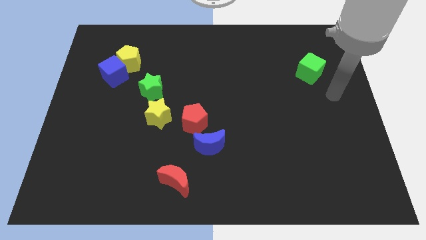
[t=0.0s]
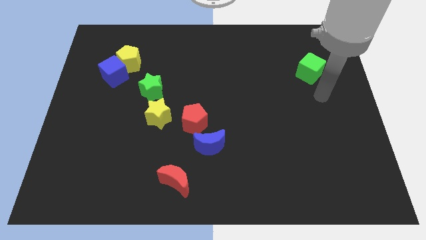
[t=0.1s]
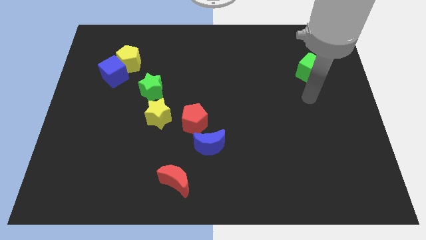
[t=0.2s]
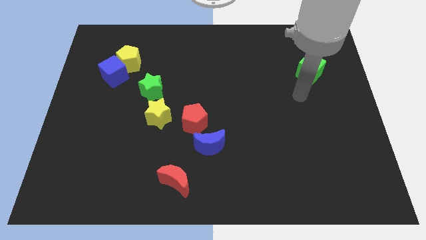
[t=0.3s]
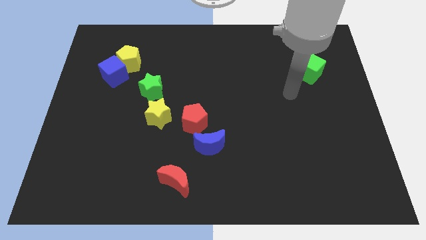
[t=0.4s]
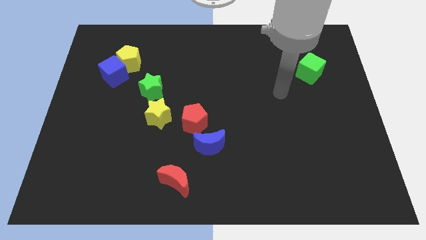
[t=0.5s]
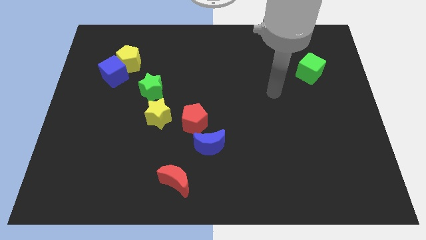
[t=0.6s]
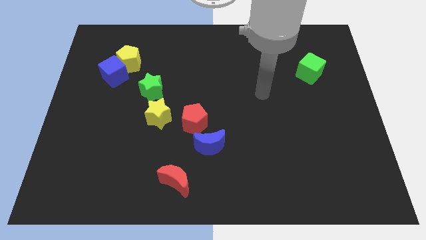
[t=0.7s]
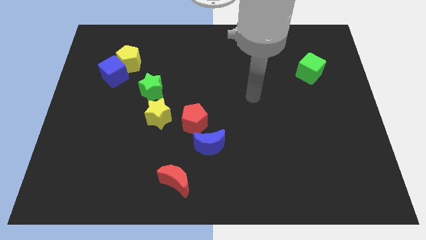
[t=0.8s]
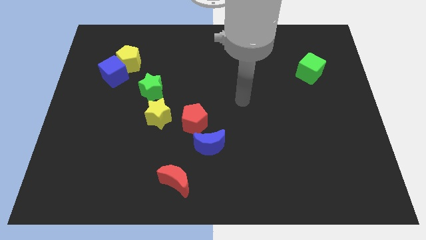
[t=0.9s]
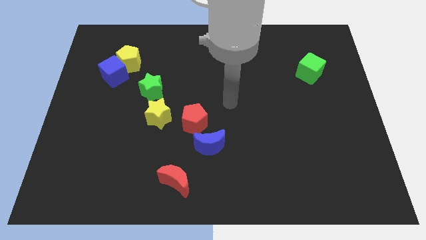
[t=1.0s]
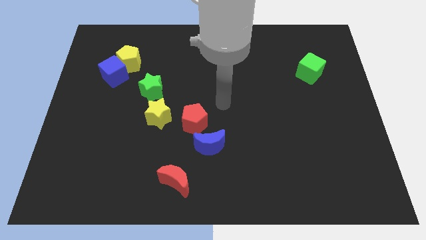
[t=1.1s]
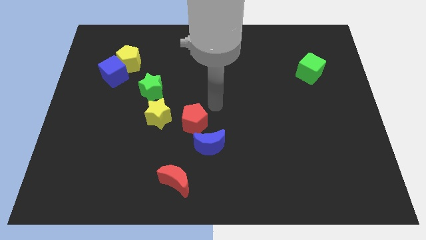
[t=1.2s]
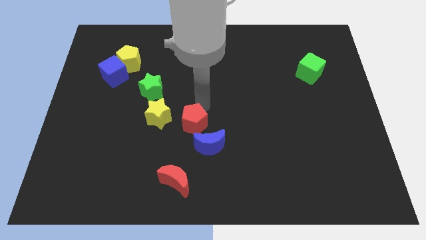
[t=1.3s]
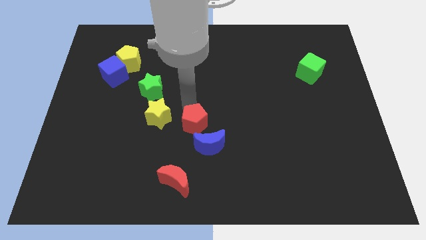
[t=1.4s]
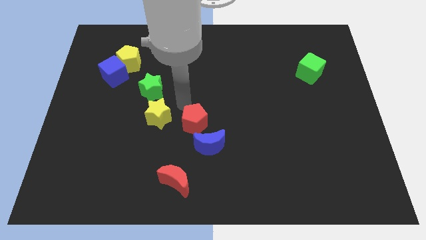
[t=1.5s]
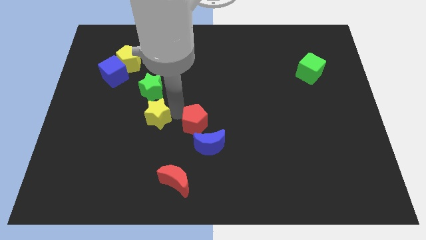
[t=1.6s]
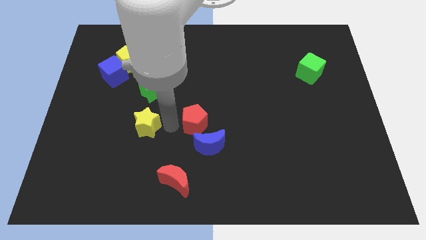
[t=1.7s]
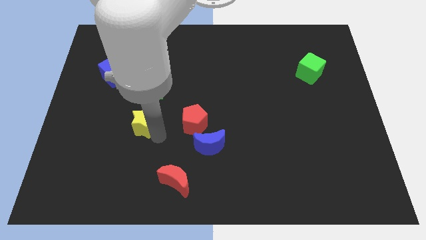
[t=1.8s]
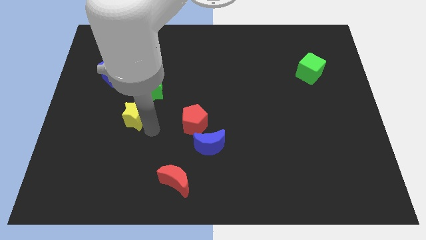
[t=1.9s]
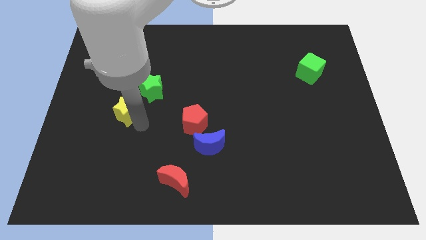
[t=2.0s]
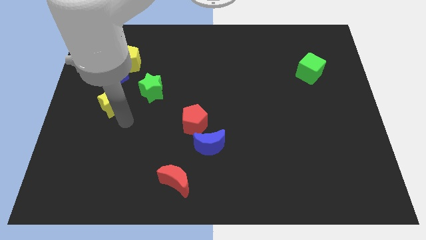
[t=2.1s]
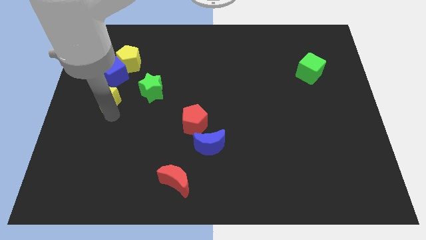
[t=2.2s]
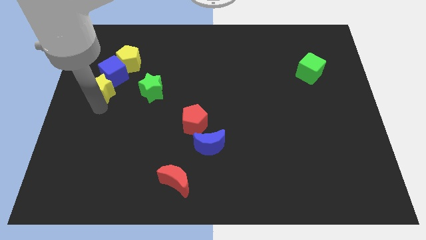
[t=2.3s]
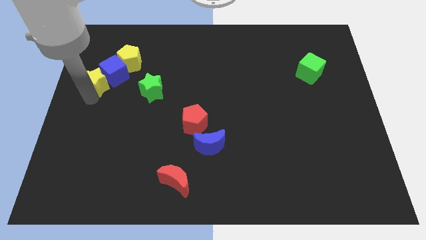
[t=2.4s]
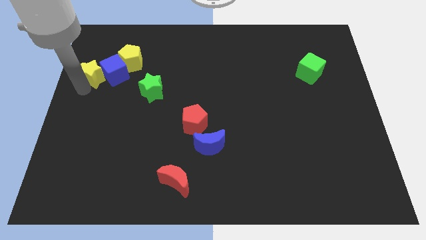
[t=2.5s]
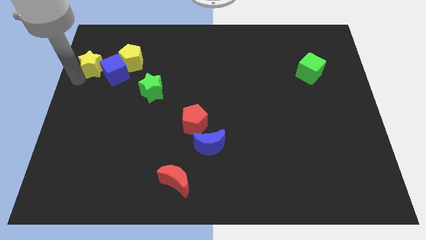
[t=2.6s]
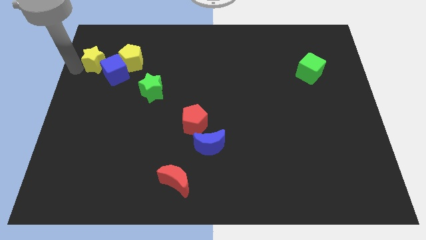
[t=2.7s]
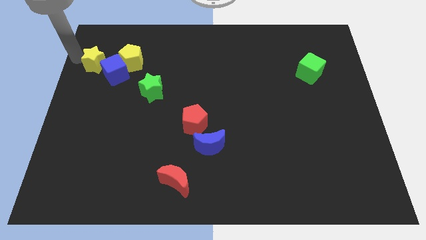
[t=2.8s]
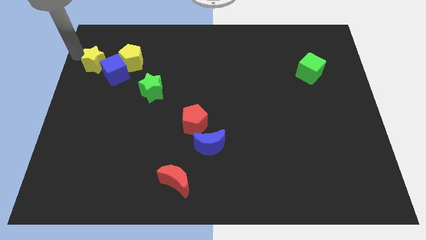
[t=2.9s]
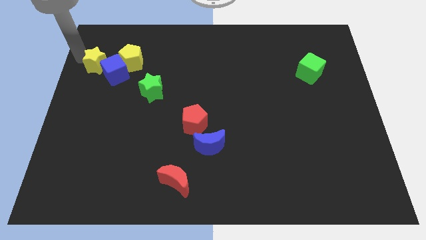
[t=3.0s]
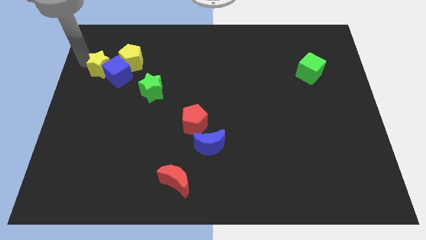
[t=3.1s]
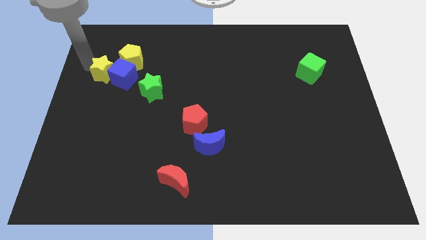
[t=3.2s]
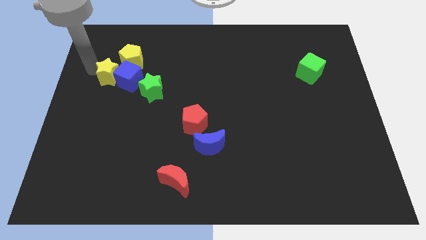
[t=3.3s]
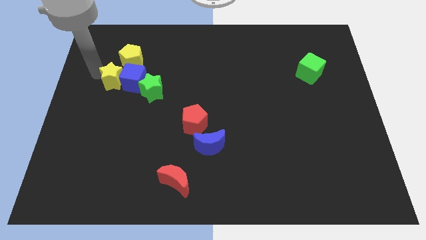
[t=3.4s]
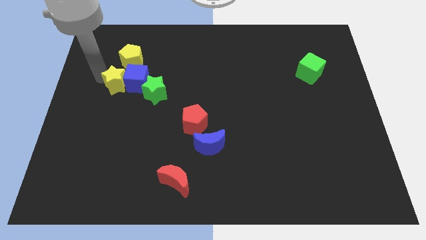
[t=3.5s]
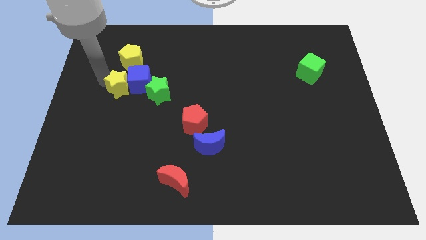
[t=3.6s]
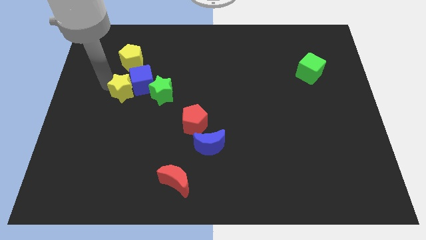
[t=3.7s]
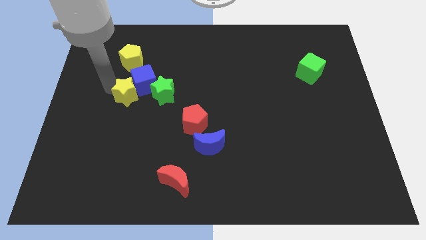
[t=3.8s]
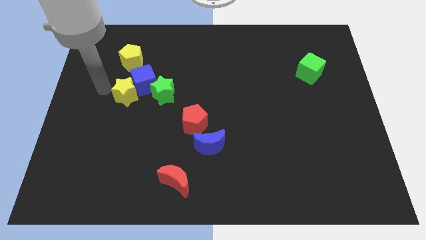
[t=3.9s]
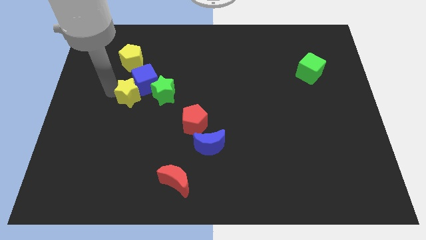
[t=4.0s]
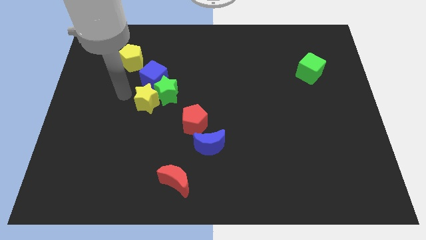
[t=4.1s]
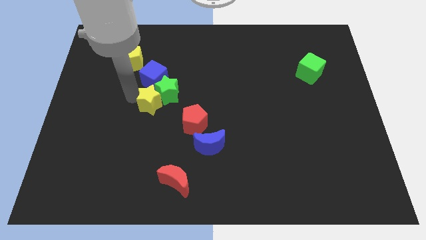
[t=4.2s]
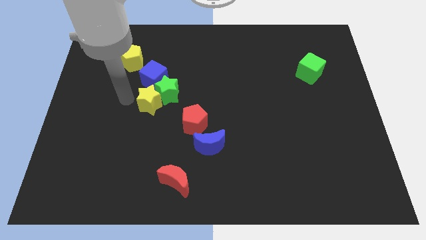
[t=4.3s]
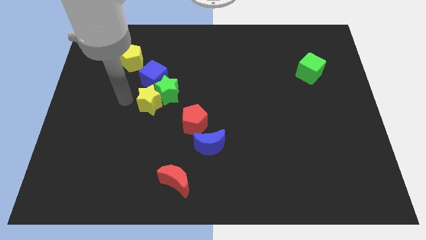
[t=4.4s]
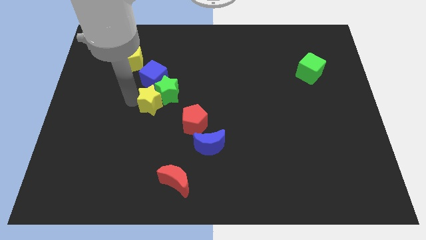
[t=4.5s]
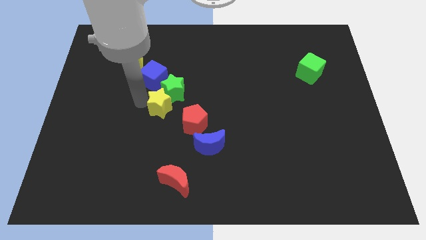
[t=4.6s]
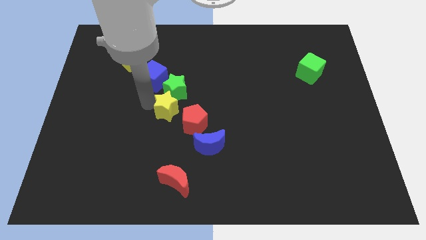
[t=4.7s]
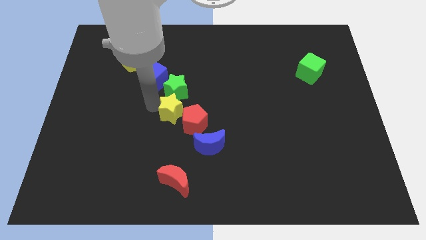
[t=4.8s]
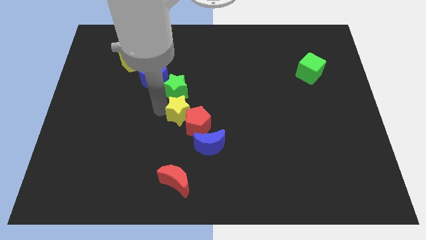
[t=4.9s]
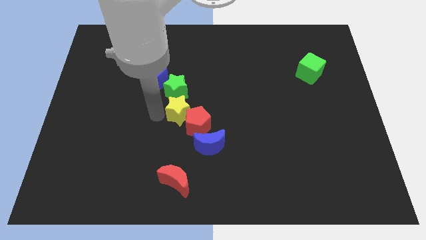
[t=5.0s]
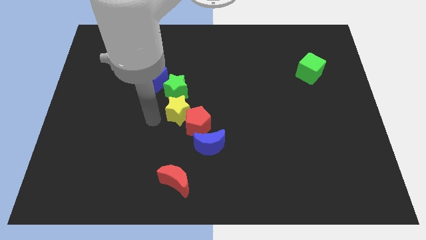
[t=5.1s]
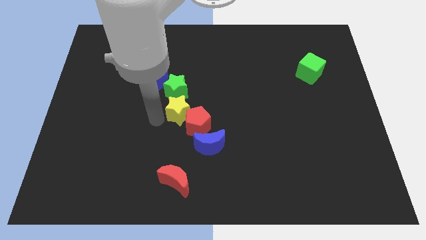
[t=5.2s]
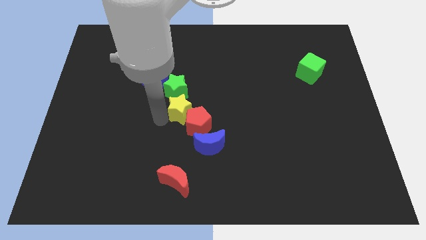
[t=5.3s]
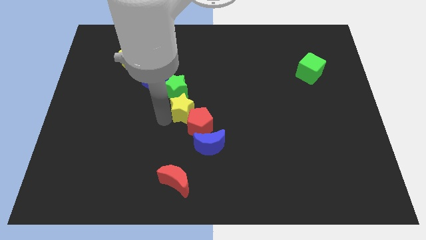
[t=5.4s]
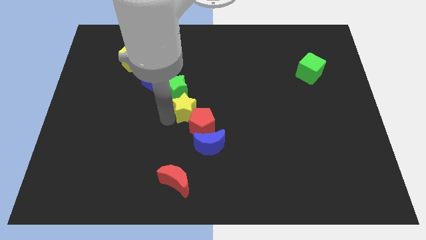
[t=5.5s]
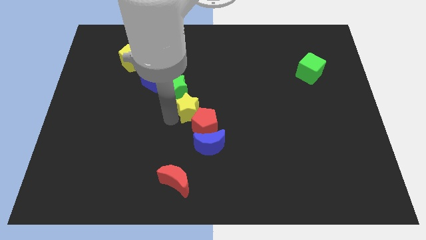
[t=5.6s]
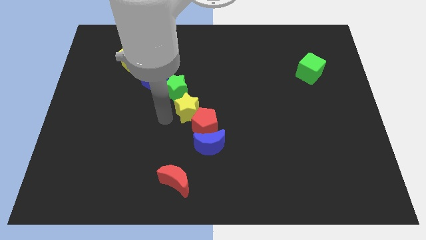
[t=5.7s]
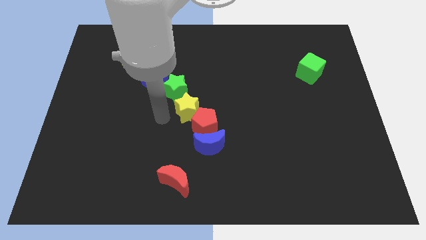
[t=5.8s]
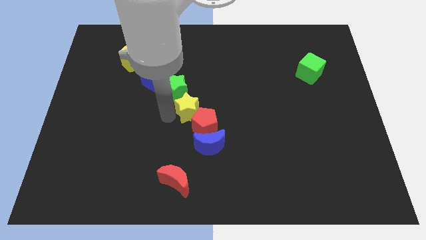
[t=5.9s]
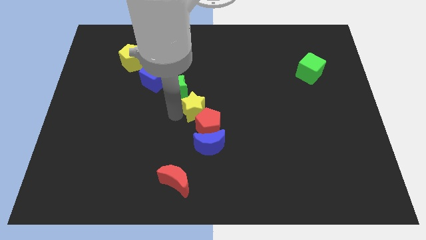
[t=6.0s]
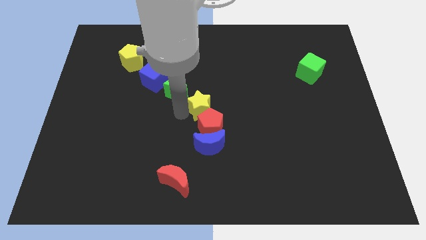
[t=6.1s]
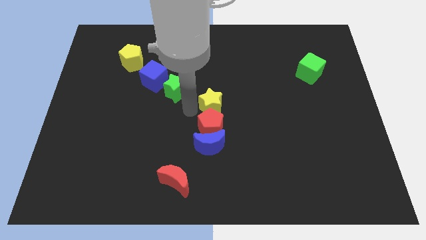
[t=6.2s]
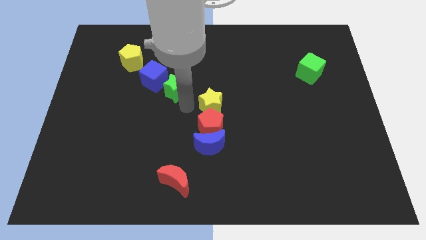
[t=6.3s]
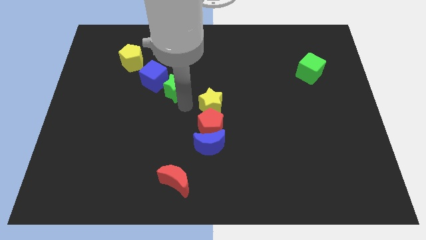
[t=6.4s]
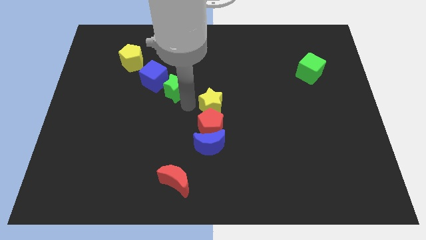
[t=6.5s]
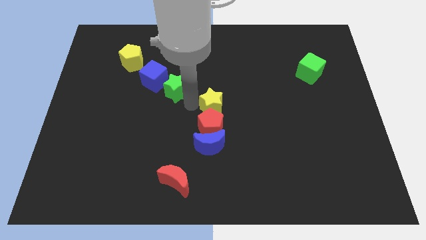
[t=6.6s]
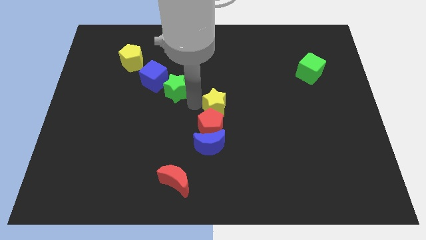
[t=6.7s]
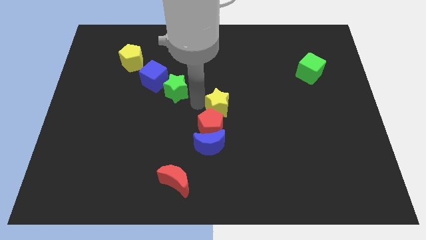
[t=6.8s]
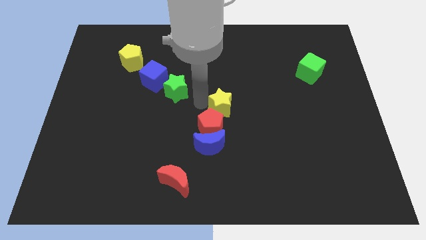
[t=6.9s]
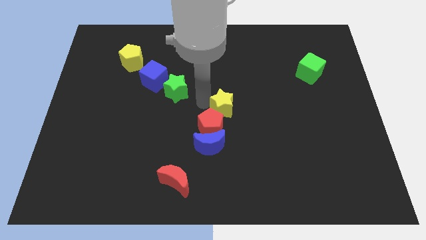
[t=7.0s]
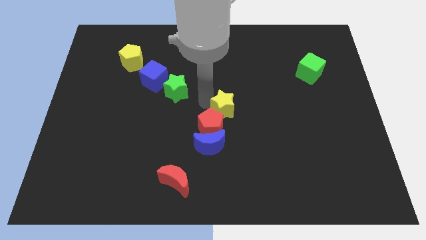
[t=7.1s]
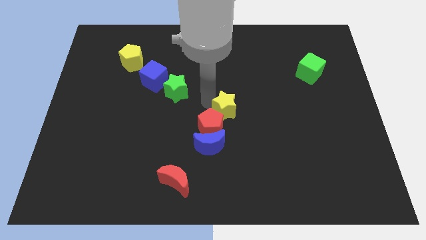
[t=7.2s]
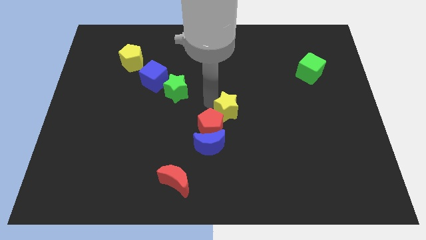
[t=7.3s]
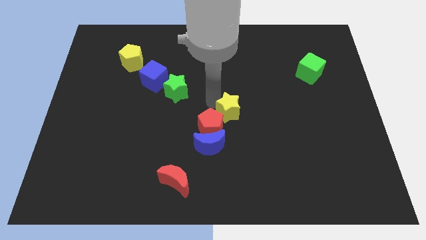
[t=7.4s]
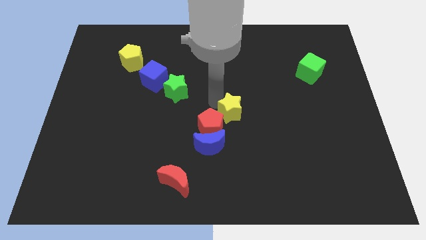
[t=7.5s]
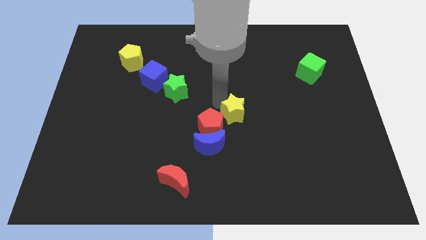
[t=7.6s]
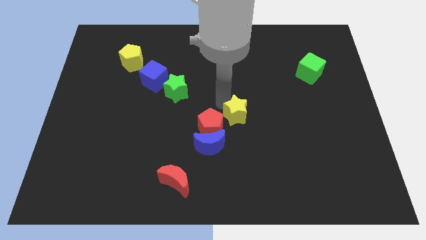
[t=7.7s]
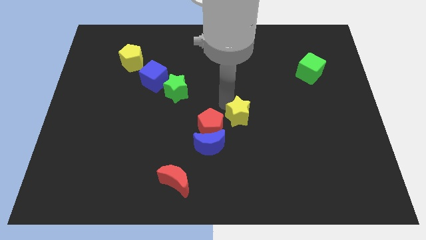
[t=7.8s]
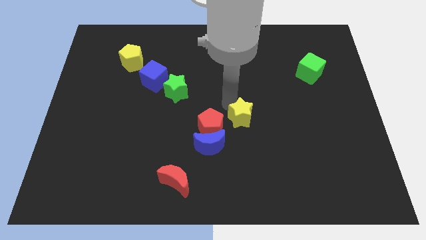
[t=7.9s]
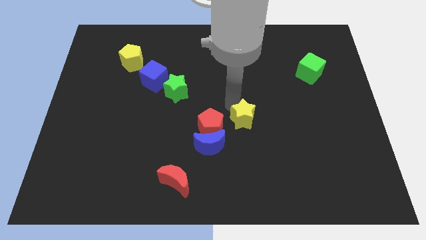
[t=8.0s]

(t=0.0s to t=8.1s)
push the yellow star to the right
